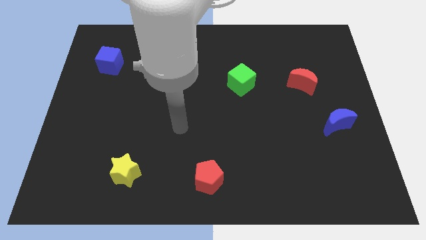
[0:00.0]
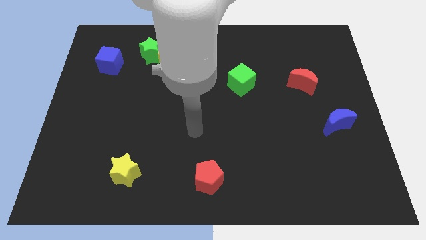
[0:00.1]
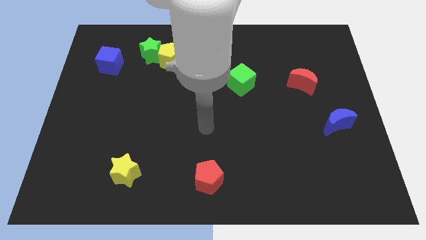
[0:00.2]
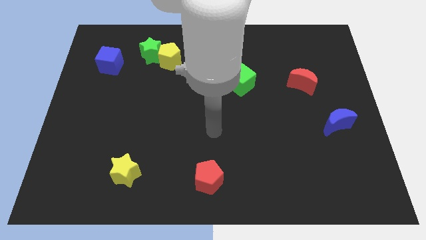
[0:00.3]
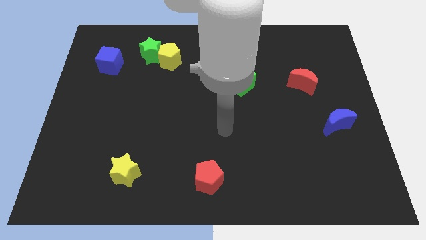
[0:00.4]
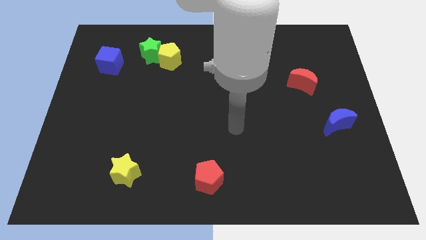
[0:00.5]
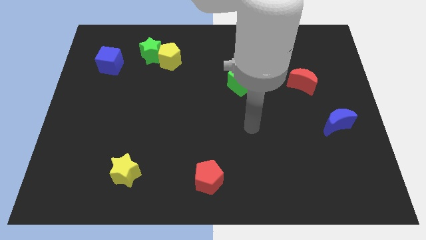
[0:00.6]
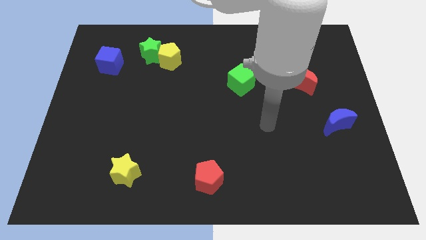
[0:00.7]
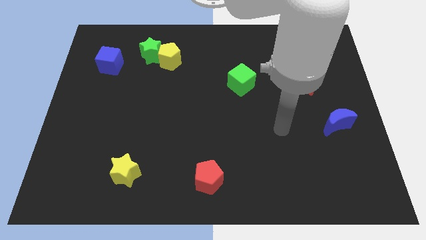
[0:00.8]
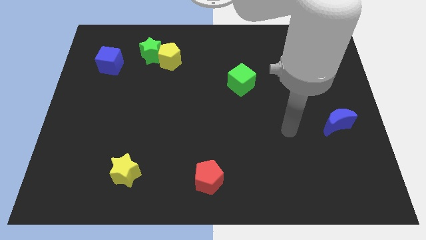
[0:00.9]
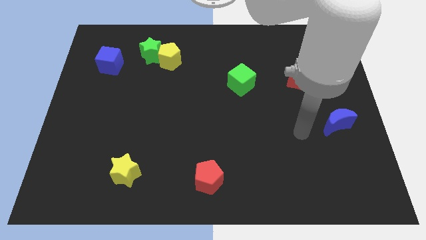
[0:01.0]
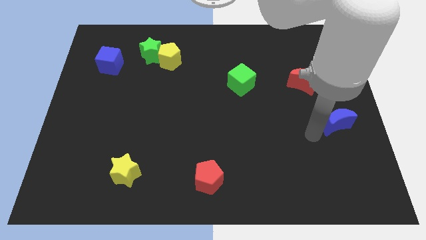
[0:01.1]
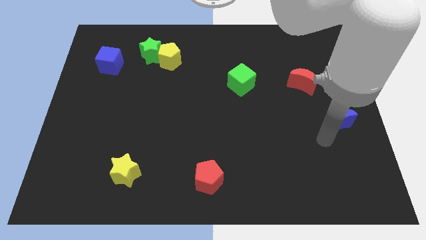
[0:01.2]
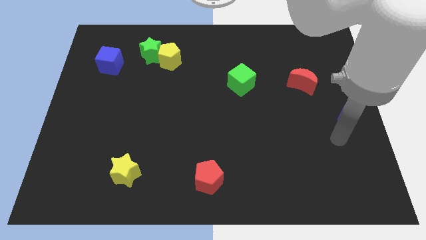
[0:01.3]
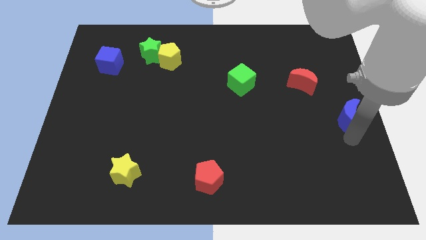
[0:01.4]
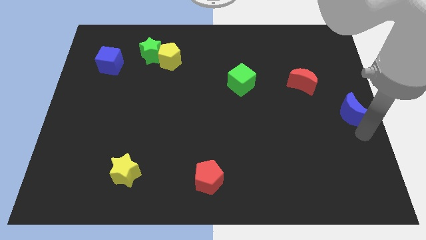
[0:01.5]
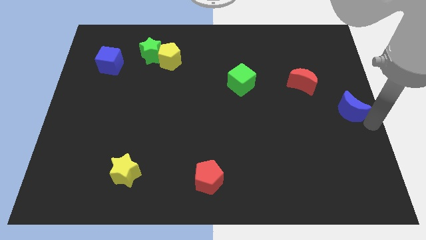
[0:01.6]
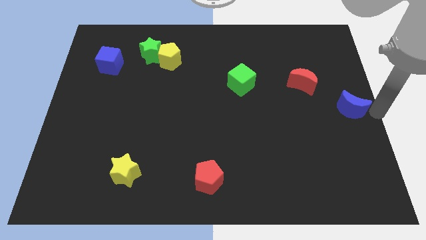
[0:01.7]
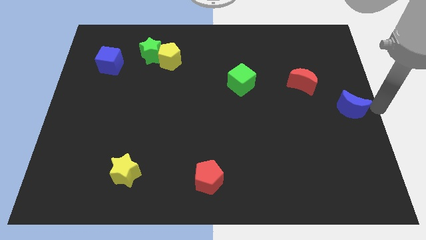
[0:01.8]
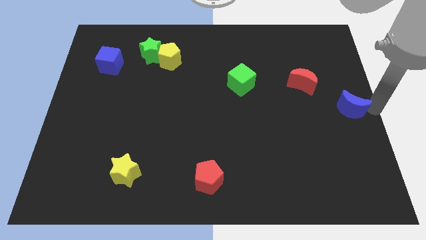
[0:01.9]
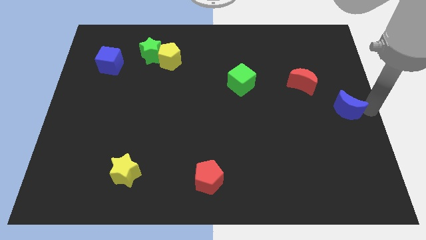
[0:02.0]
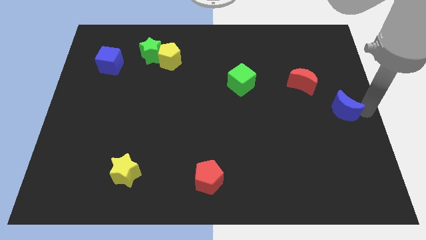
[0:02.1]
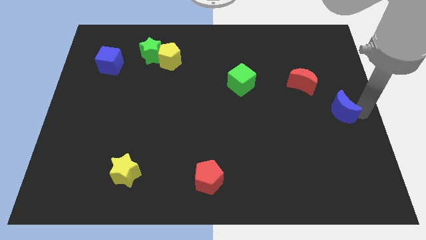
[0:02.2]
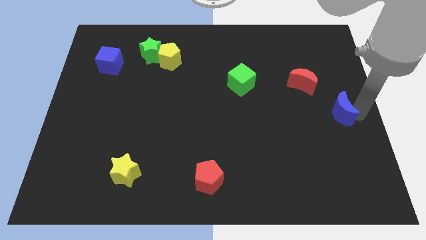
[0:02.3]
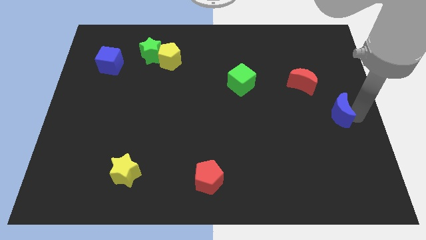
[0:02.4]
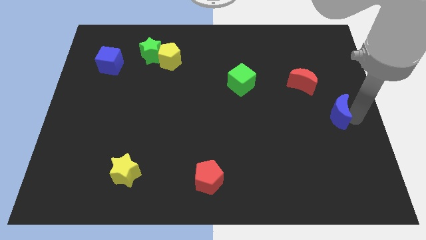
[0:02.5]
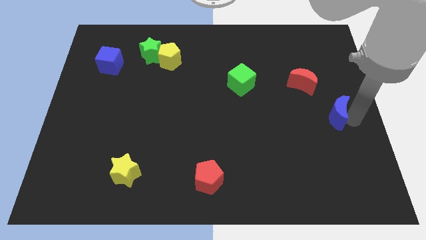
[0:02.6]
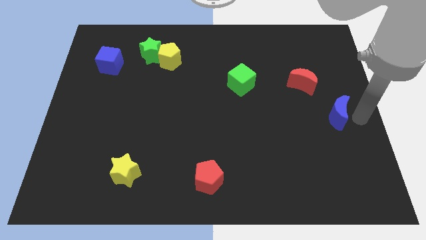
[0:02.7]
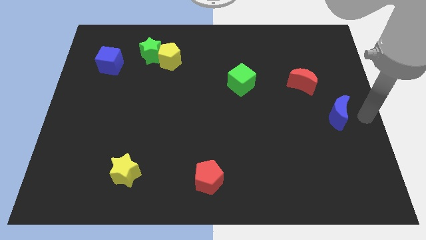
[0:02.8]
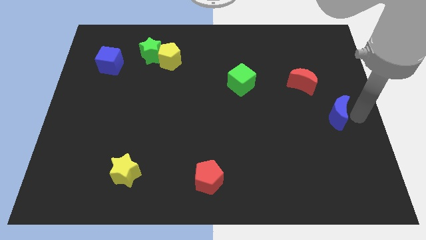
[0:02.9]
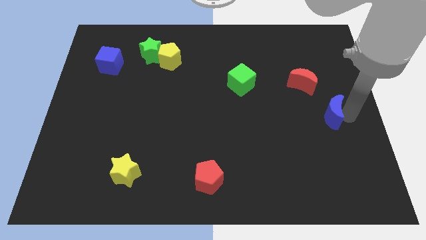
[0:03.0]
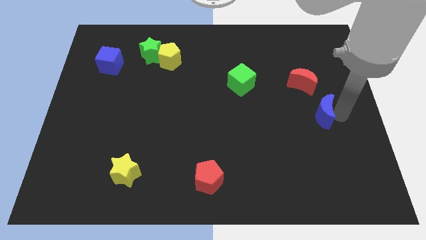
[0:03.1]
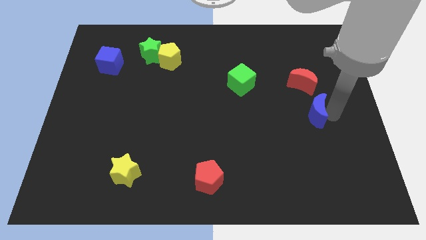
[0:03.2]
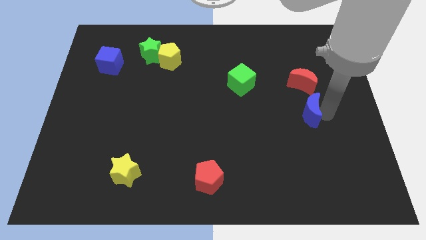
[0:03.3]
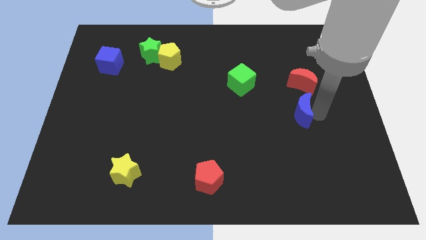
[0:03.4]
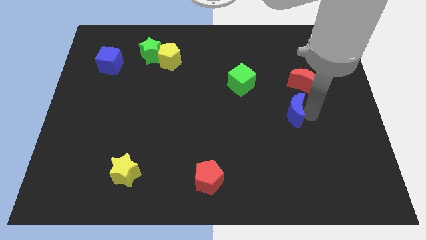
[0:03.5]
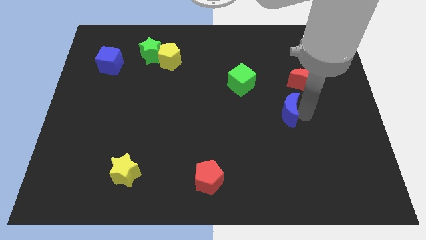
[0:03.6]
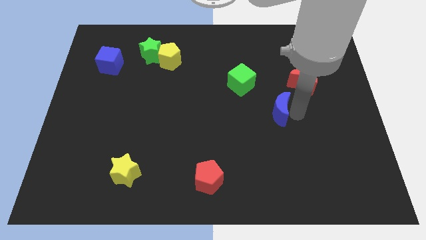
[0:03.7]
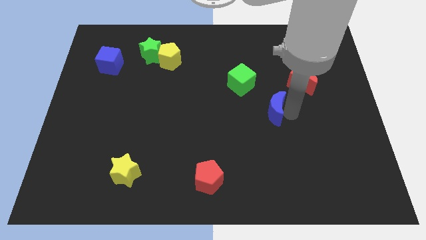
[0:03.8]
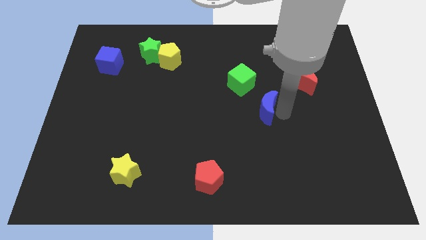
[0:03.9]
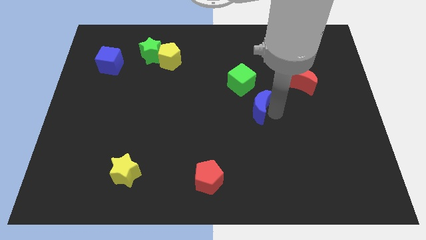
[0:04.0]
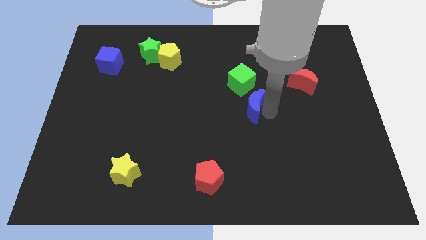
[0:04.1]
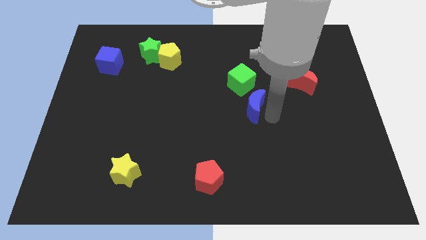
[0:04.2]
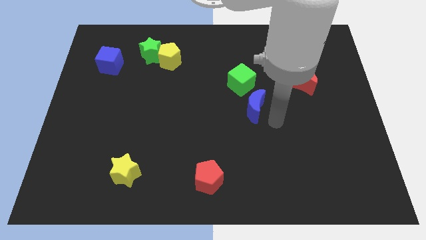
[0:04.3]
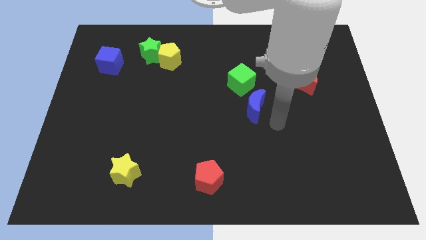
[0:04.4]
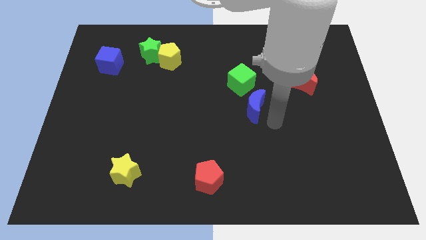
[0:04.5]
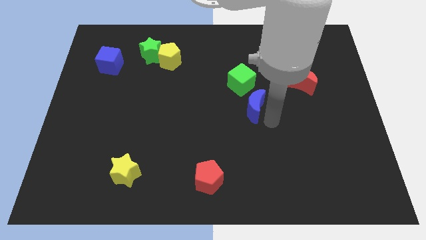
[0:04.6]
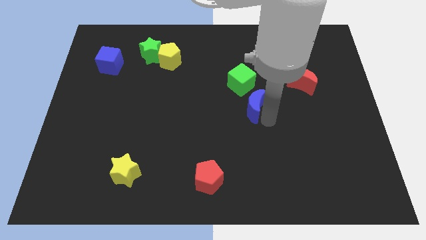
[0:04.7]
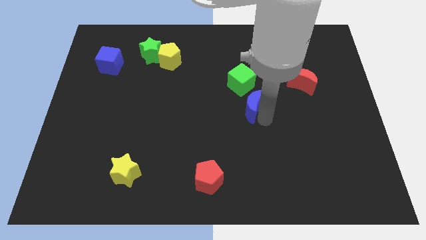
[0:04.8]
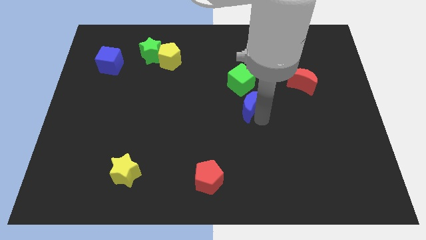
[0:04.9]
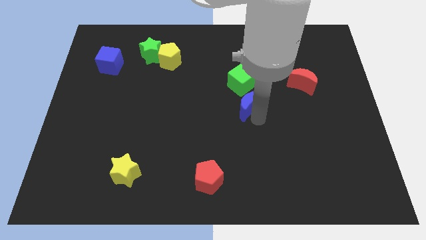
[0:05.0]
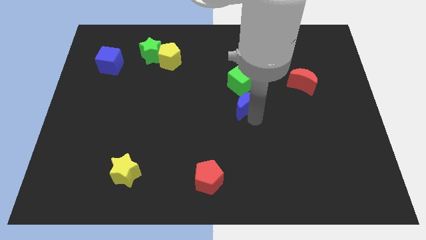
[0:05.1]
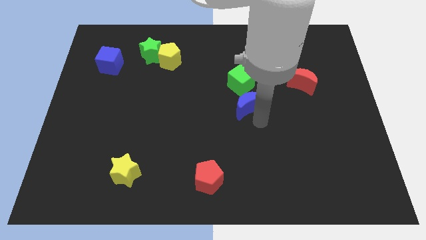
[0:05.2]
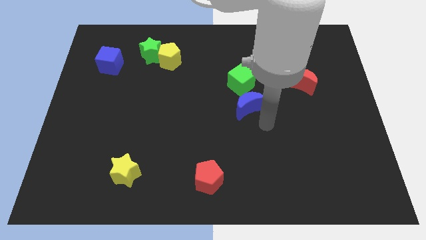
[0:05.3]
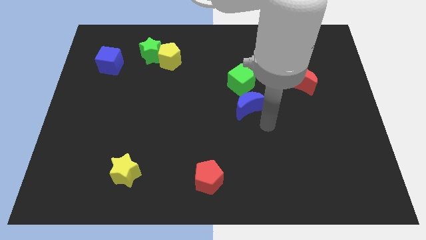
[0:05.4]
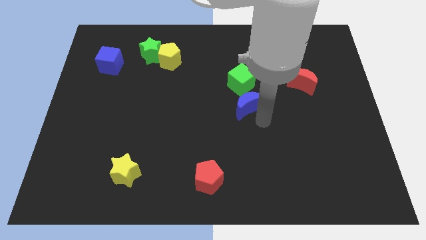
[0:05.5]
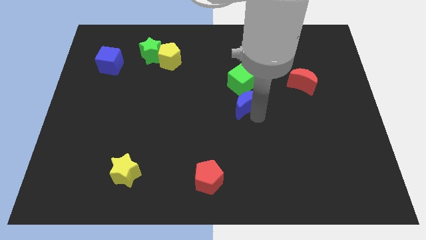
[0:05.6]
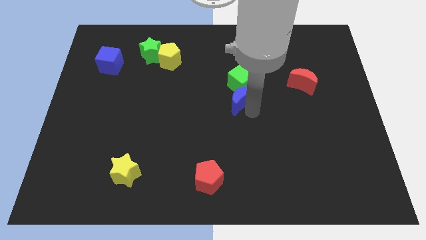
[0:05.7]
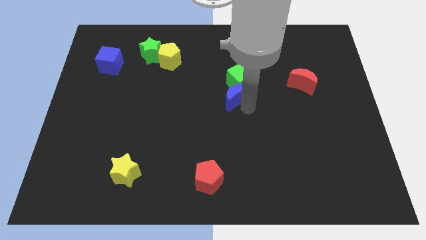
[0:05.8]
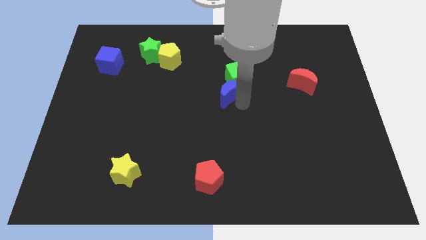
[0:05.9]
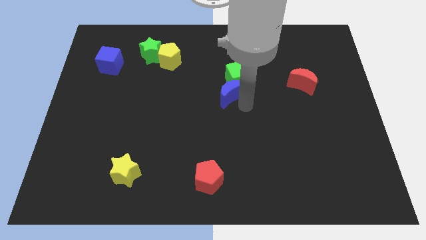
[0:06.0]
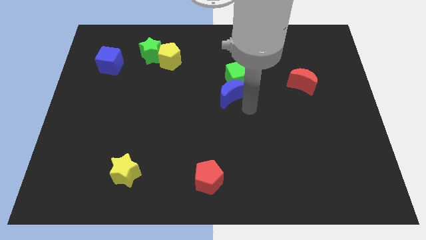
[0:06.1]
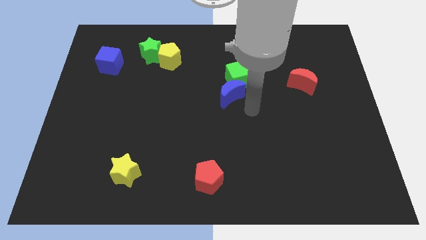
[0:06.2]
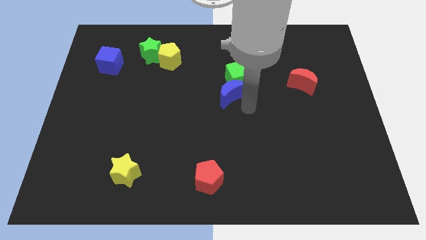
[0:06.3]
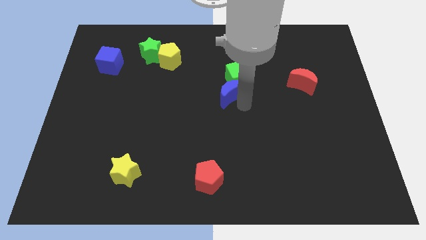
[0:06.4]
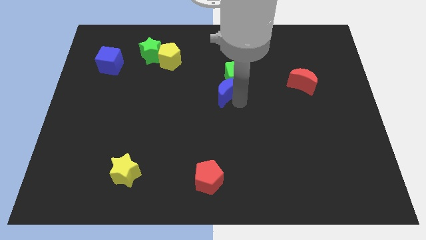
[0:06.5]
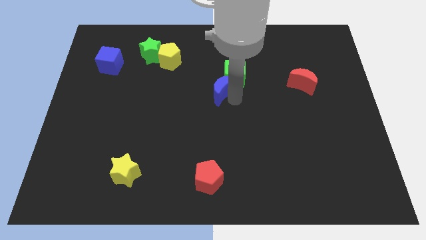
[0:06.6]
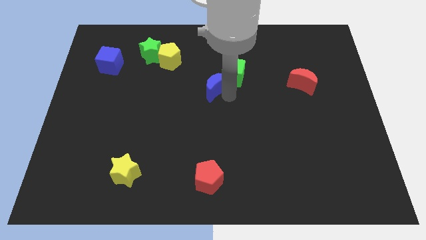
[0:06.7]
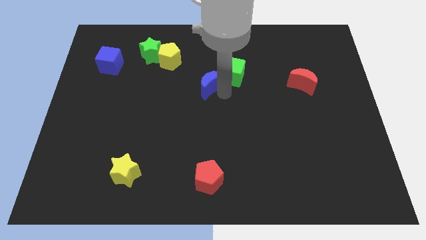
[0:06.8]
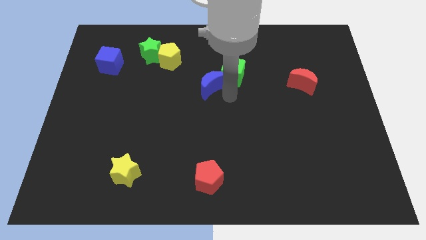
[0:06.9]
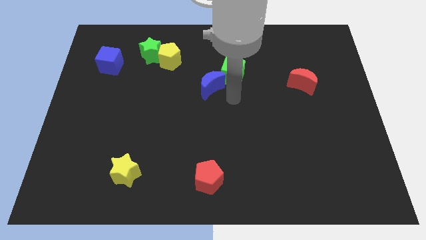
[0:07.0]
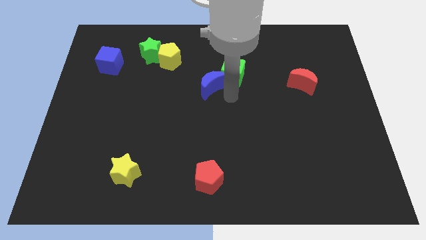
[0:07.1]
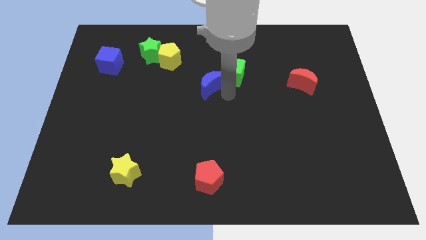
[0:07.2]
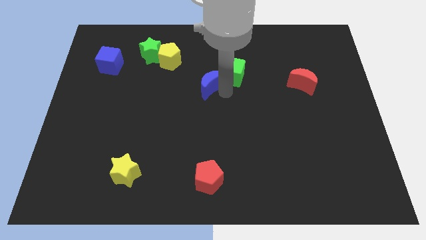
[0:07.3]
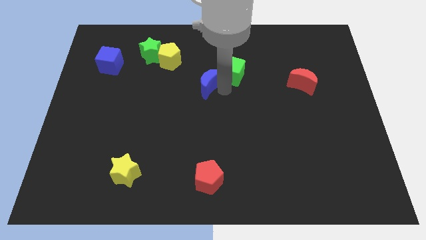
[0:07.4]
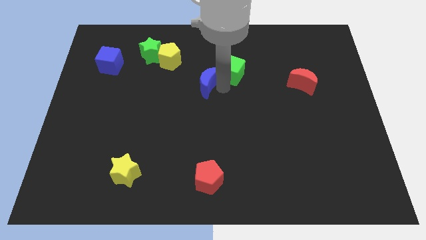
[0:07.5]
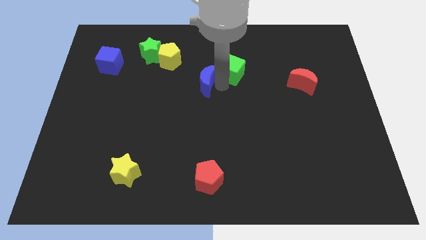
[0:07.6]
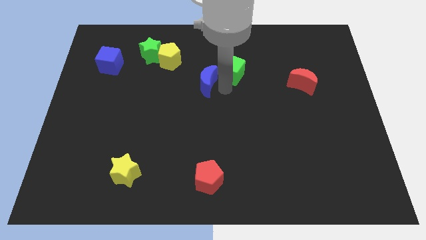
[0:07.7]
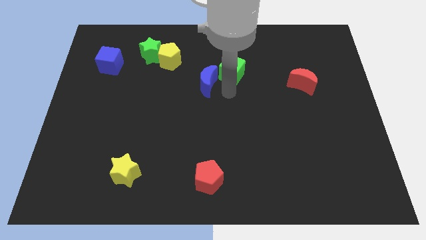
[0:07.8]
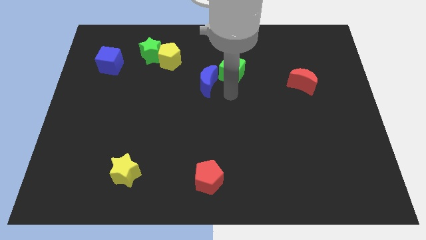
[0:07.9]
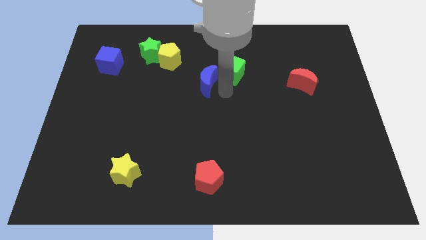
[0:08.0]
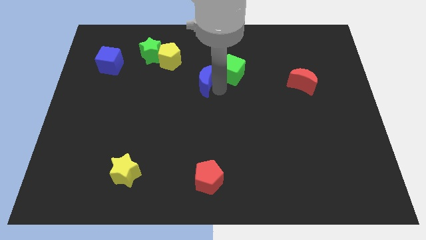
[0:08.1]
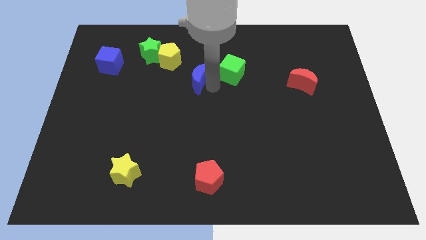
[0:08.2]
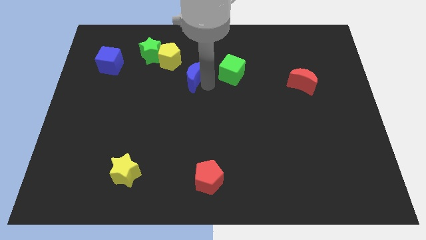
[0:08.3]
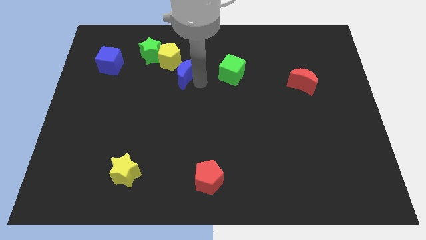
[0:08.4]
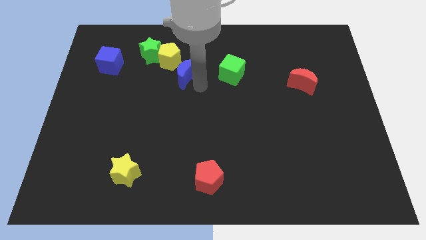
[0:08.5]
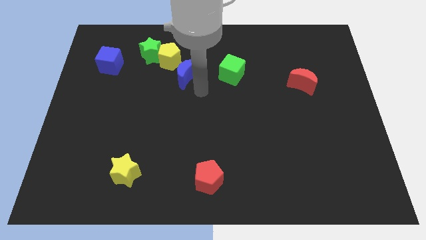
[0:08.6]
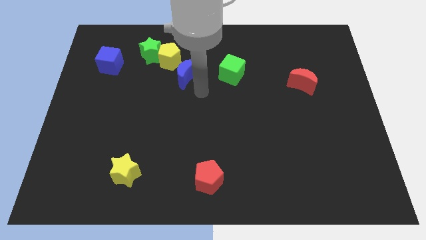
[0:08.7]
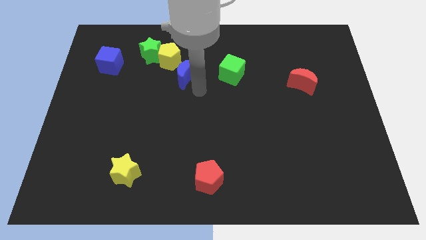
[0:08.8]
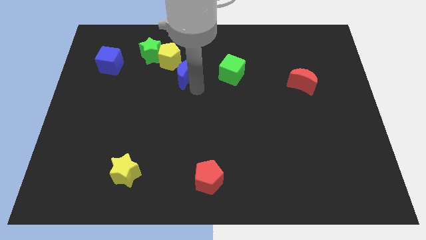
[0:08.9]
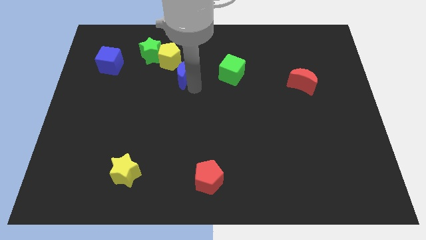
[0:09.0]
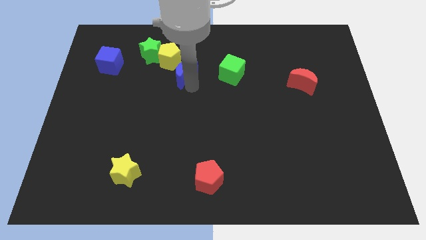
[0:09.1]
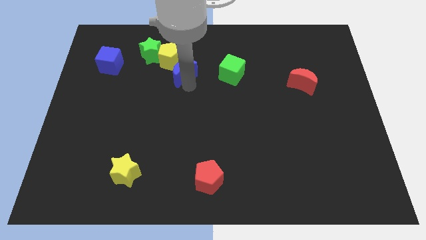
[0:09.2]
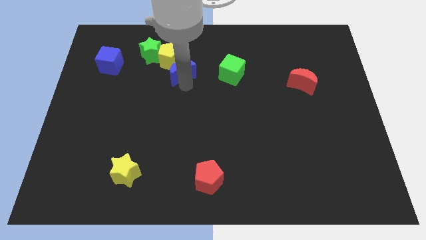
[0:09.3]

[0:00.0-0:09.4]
put the blue moon next to the yellow pentagon
